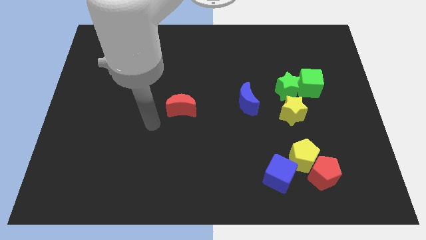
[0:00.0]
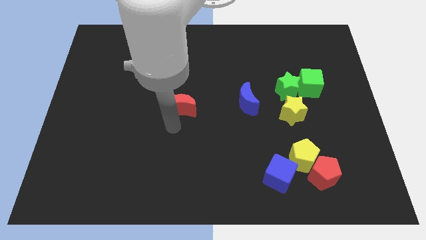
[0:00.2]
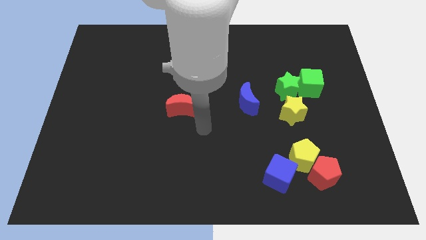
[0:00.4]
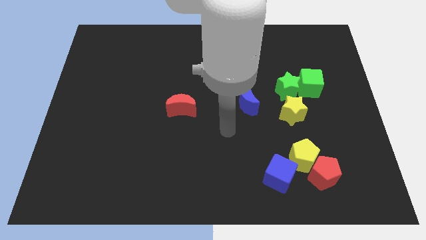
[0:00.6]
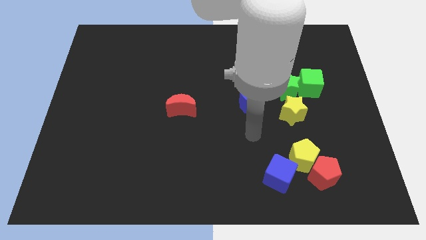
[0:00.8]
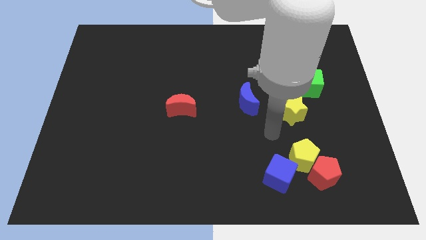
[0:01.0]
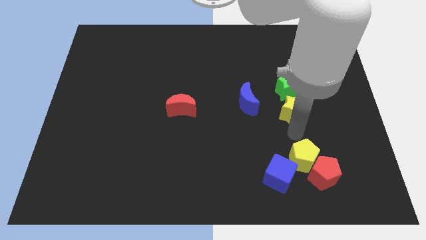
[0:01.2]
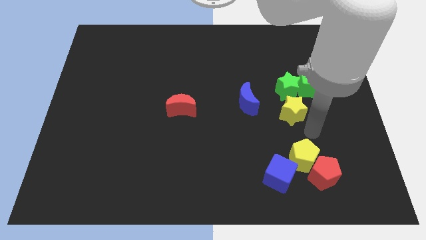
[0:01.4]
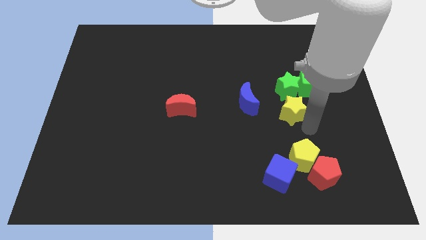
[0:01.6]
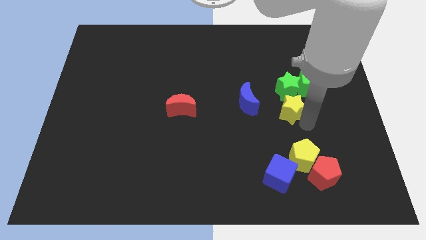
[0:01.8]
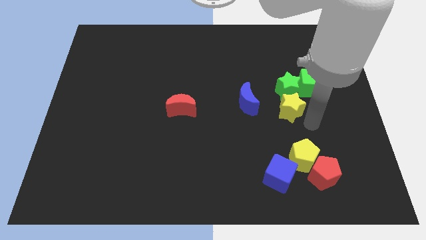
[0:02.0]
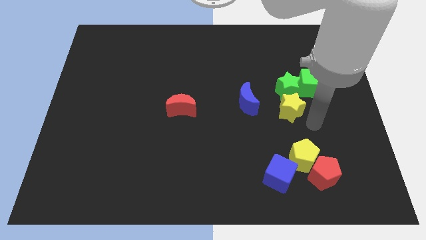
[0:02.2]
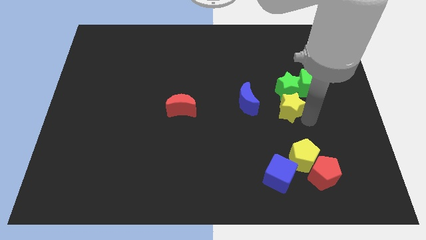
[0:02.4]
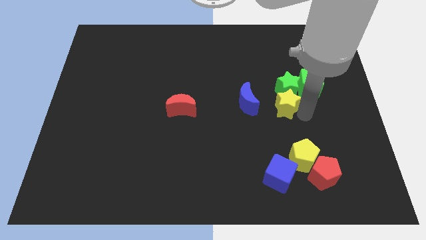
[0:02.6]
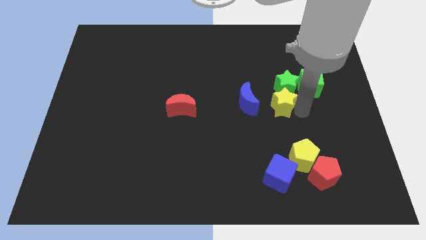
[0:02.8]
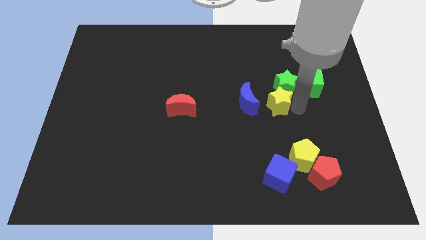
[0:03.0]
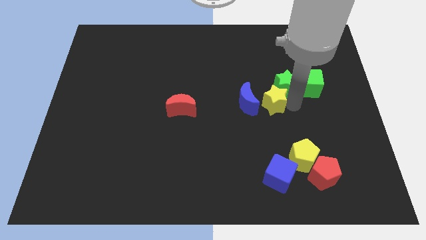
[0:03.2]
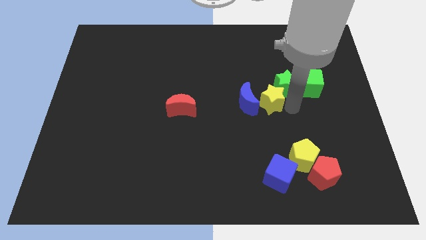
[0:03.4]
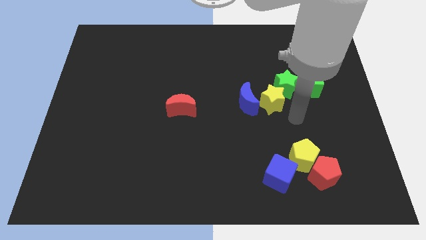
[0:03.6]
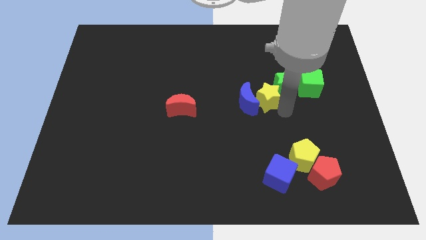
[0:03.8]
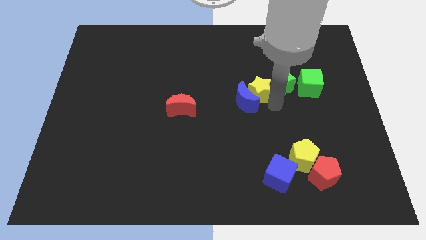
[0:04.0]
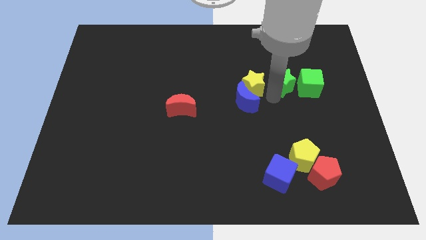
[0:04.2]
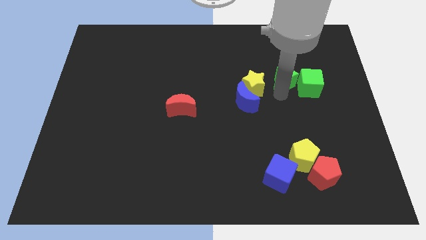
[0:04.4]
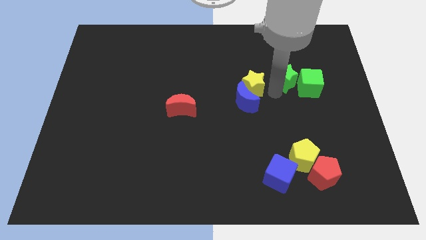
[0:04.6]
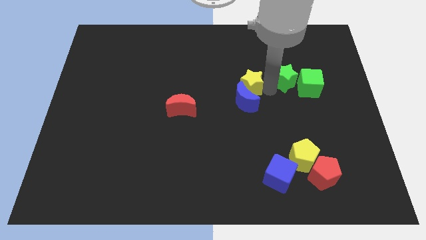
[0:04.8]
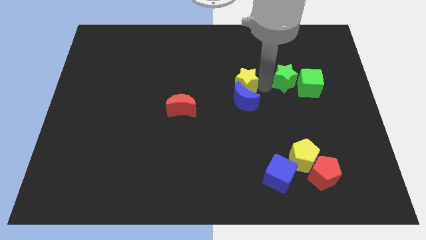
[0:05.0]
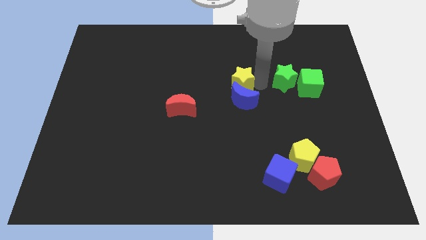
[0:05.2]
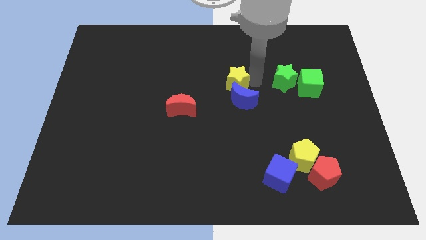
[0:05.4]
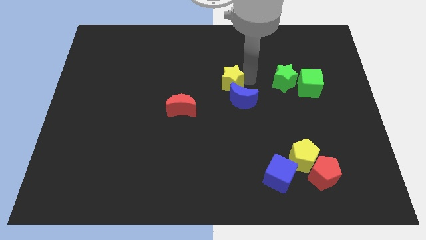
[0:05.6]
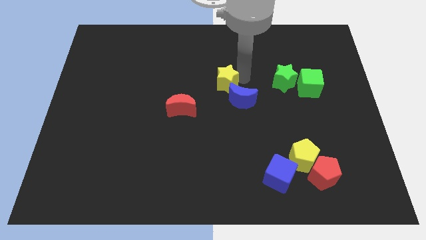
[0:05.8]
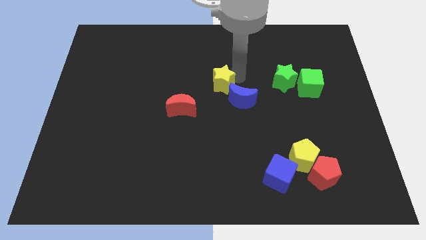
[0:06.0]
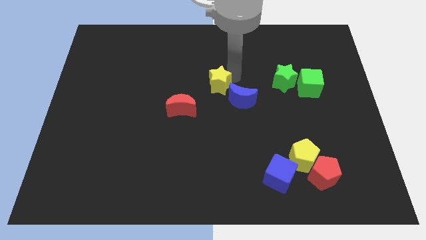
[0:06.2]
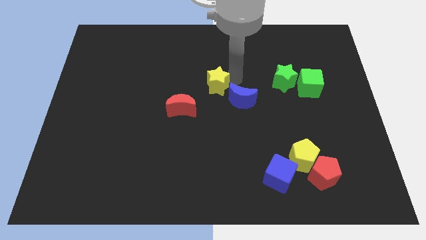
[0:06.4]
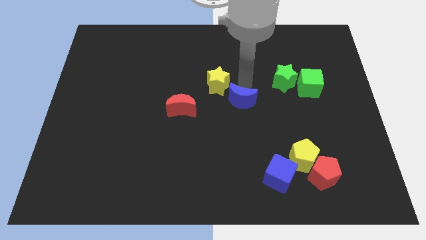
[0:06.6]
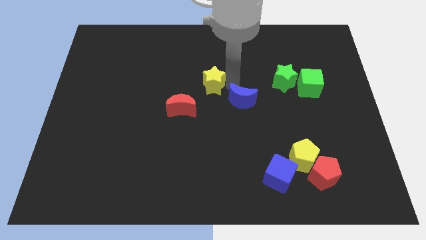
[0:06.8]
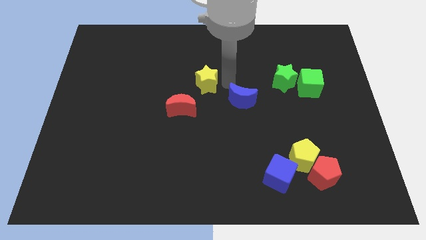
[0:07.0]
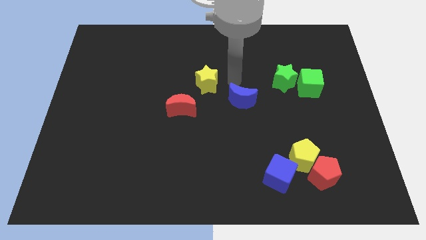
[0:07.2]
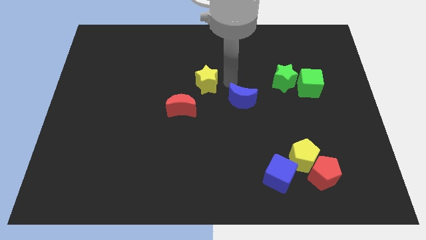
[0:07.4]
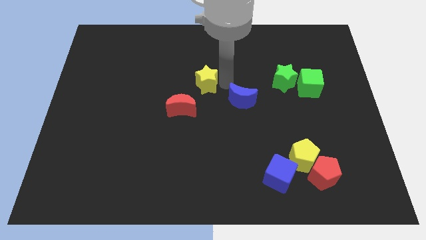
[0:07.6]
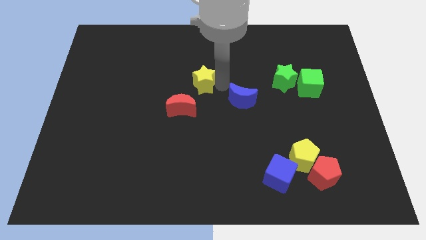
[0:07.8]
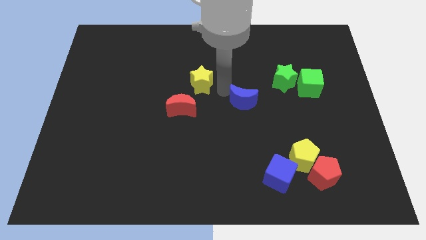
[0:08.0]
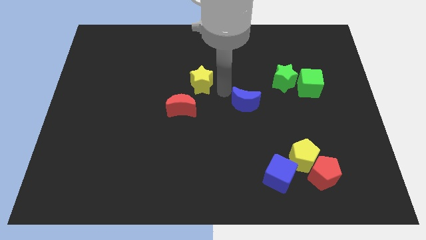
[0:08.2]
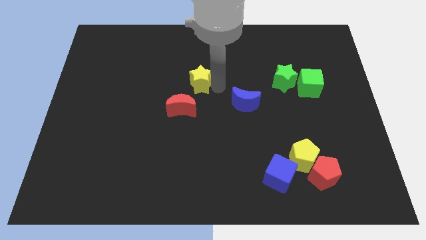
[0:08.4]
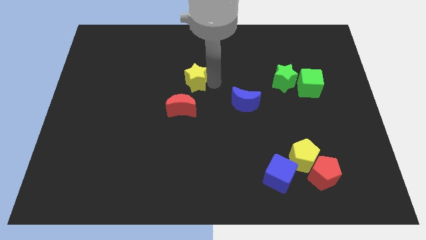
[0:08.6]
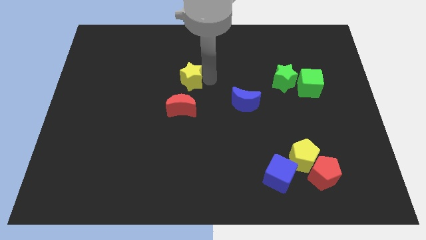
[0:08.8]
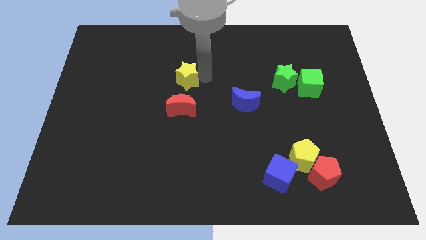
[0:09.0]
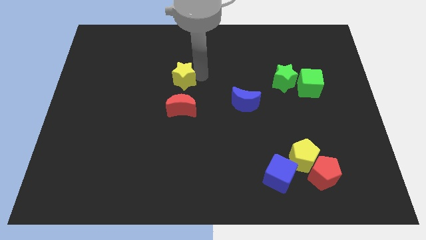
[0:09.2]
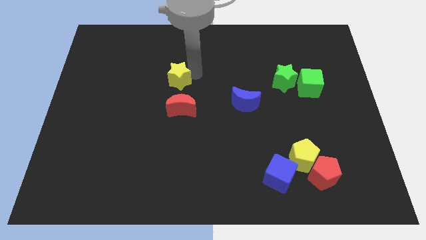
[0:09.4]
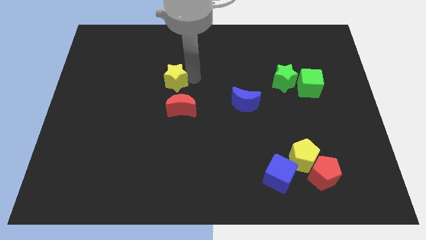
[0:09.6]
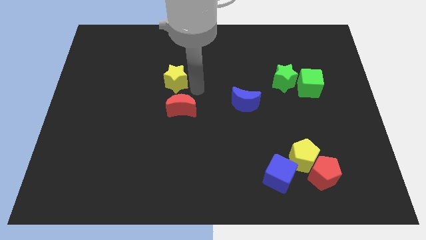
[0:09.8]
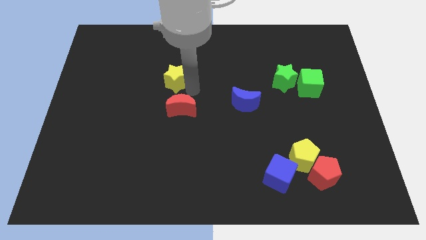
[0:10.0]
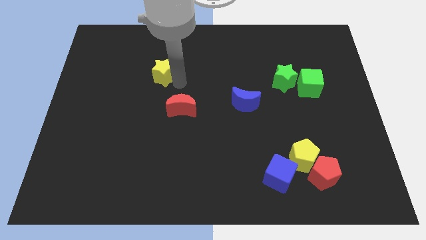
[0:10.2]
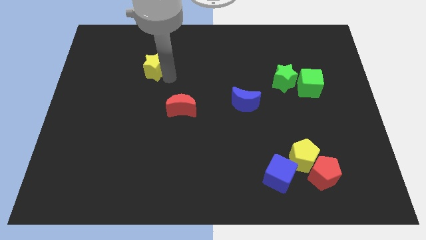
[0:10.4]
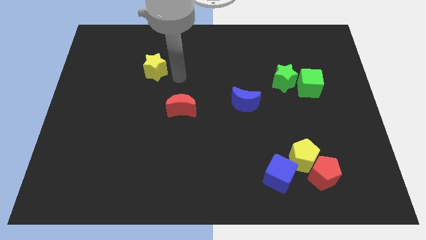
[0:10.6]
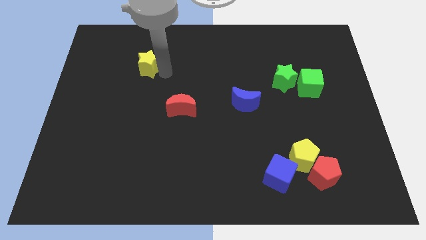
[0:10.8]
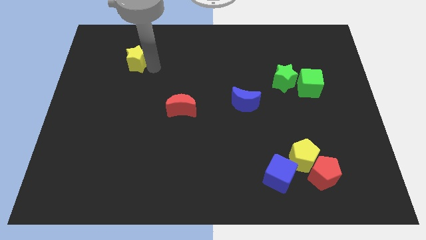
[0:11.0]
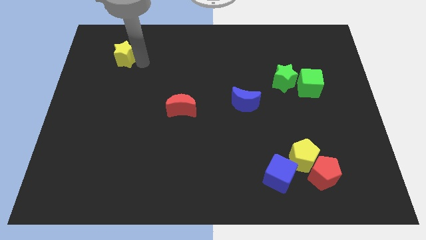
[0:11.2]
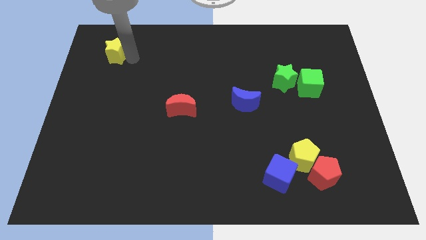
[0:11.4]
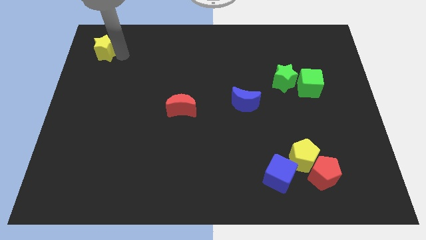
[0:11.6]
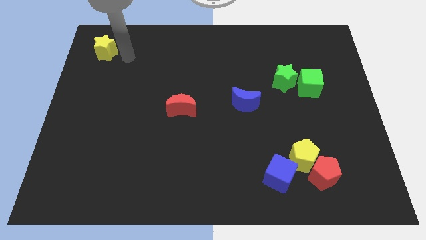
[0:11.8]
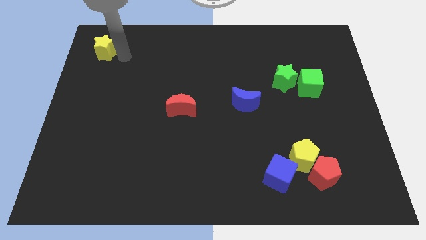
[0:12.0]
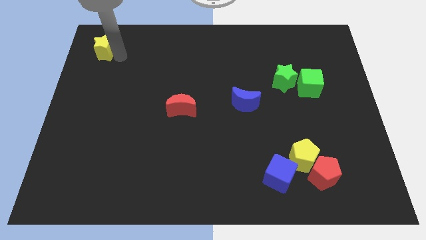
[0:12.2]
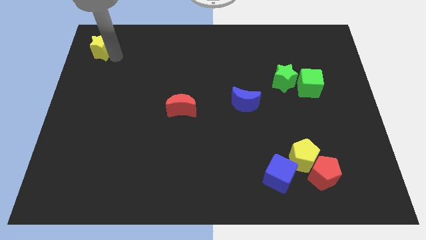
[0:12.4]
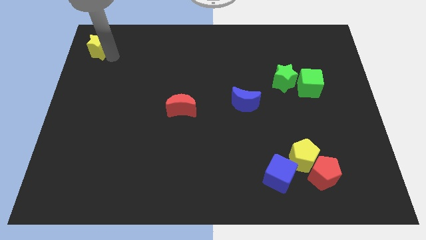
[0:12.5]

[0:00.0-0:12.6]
move the yellow star to the upper left corner
